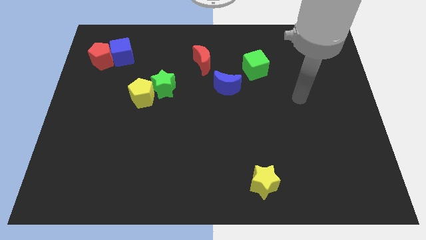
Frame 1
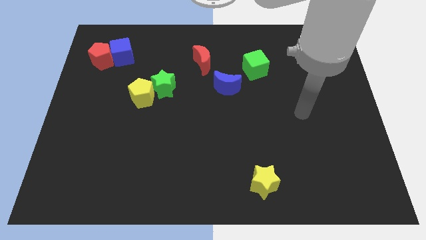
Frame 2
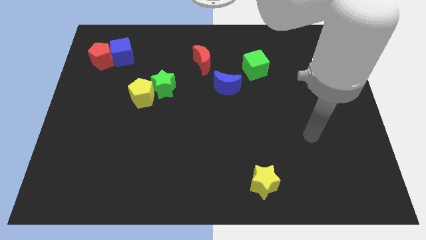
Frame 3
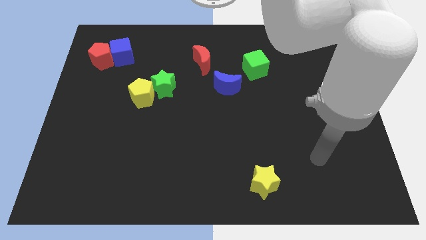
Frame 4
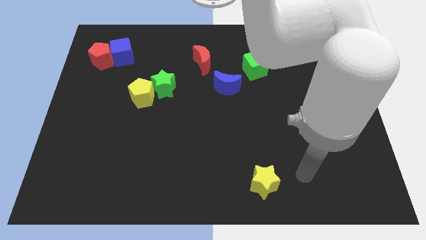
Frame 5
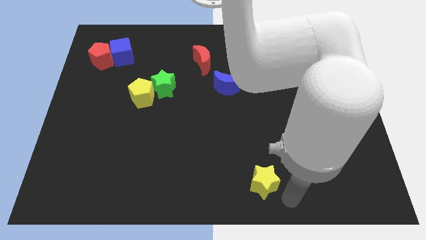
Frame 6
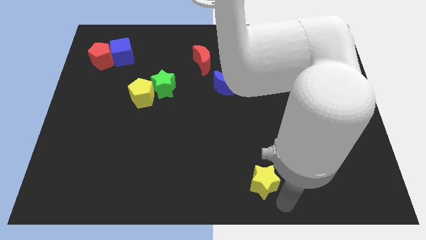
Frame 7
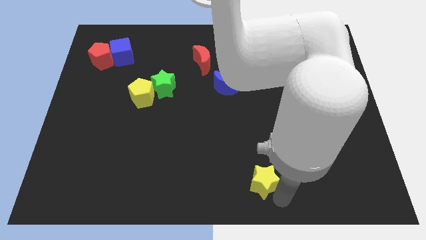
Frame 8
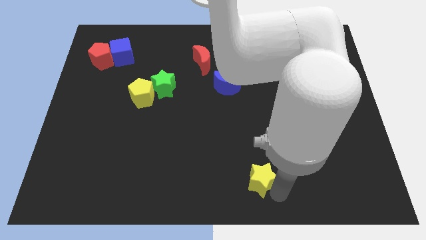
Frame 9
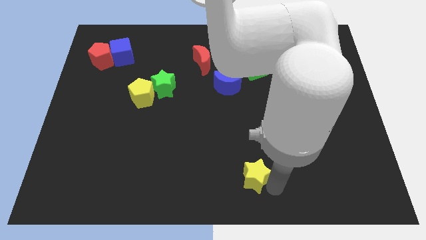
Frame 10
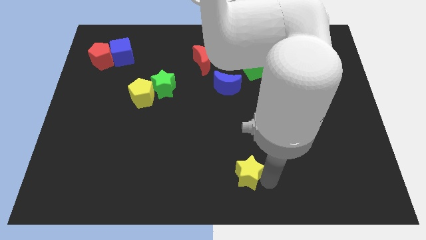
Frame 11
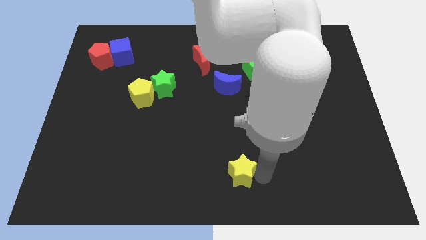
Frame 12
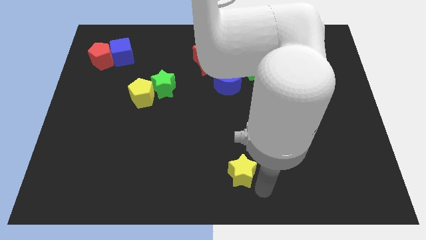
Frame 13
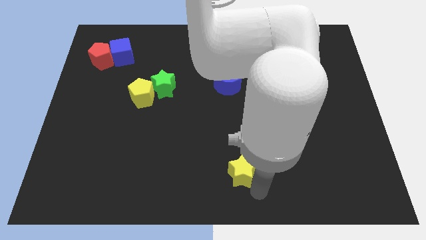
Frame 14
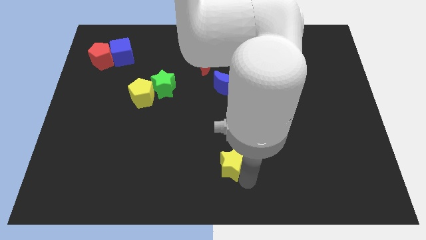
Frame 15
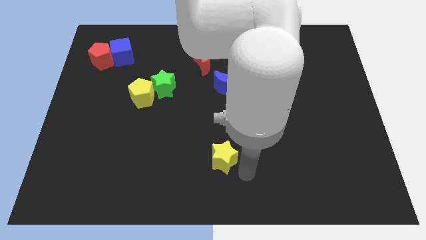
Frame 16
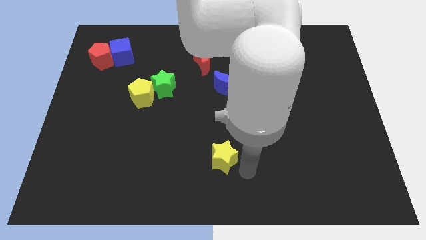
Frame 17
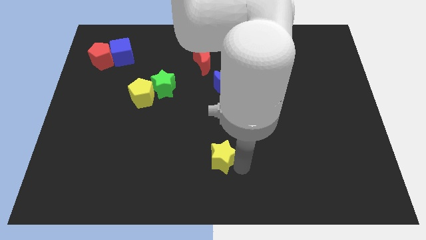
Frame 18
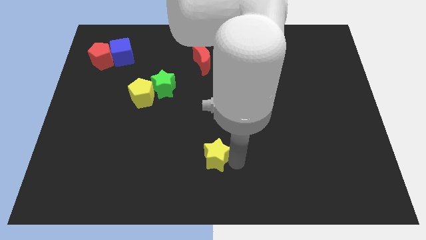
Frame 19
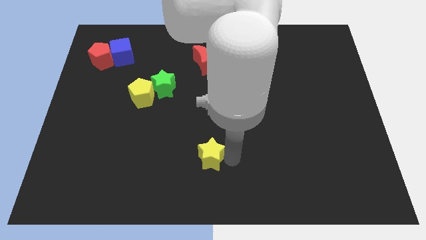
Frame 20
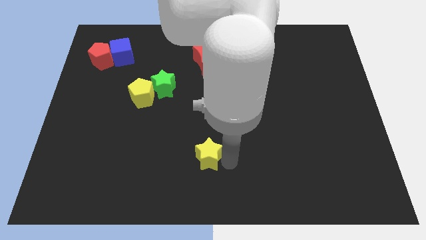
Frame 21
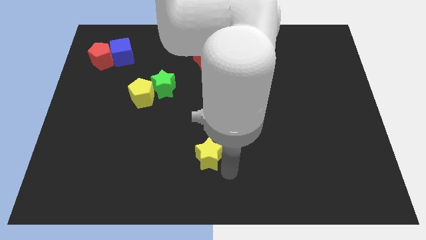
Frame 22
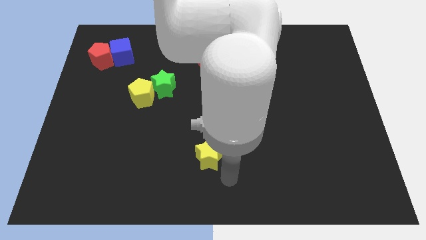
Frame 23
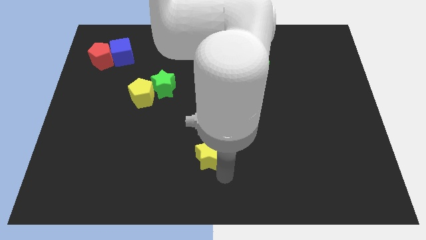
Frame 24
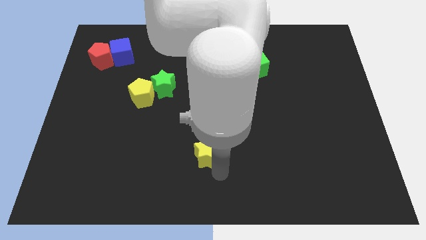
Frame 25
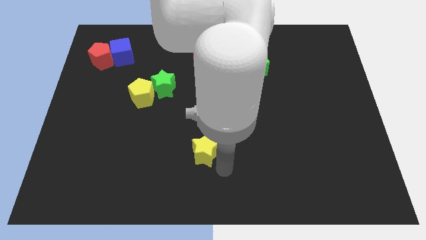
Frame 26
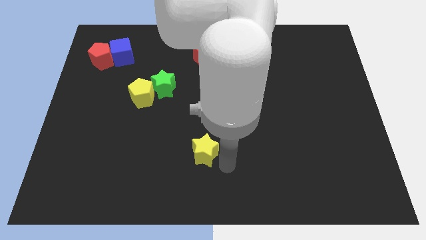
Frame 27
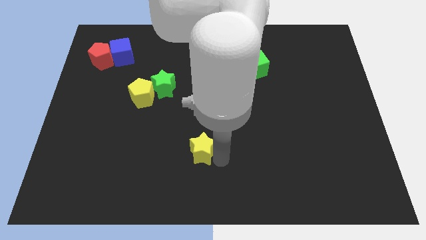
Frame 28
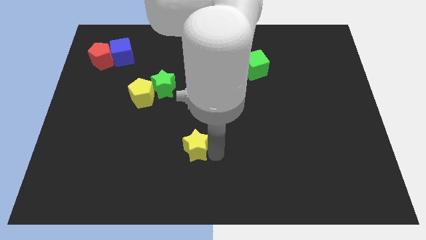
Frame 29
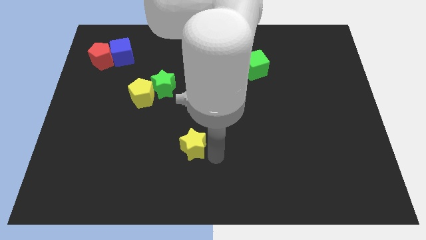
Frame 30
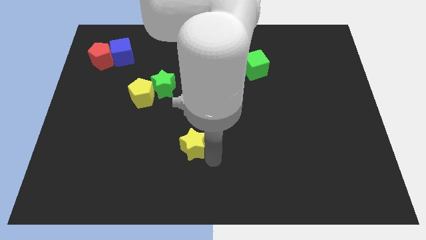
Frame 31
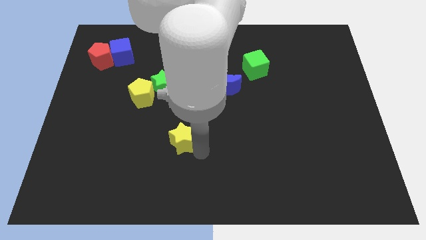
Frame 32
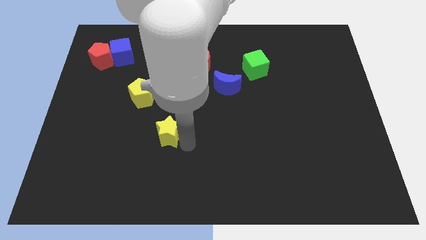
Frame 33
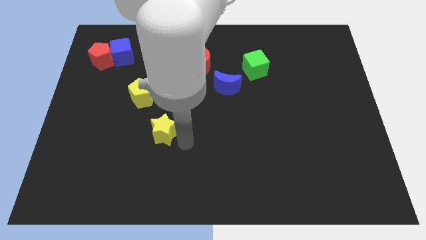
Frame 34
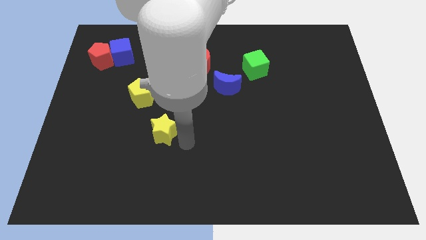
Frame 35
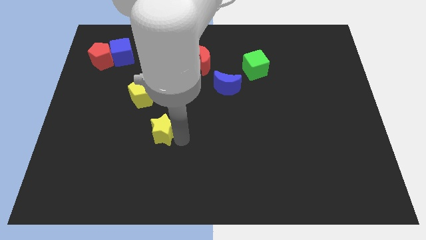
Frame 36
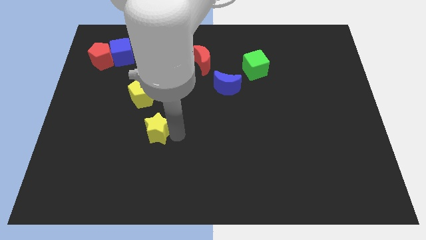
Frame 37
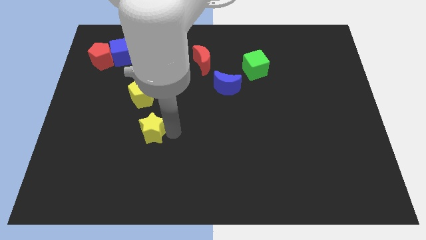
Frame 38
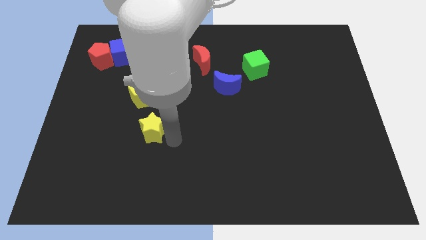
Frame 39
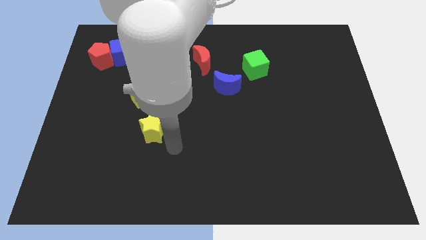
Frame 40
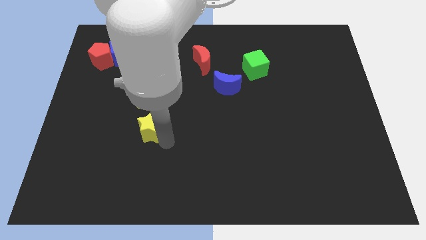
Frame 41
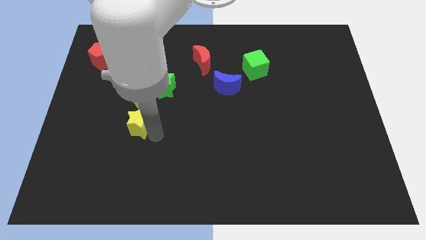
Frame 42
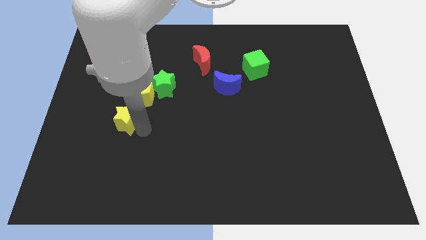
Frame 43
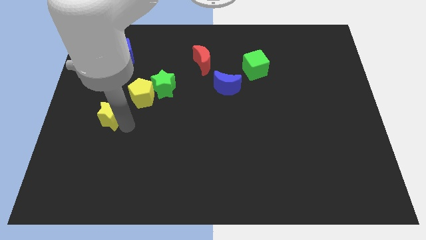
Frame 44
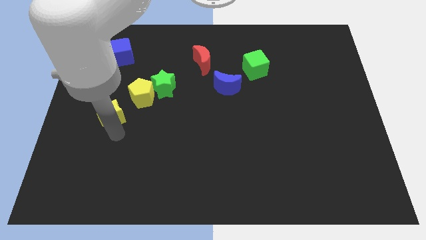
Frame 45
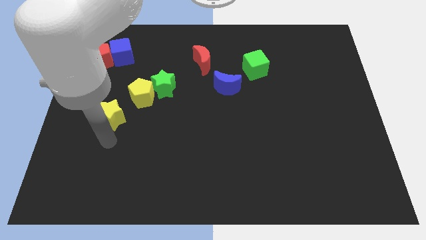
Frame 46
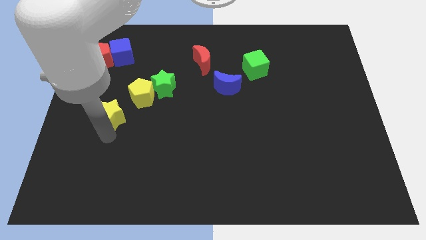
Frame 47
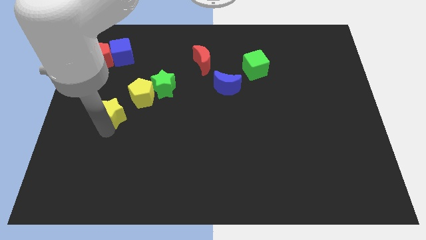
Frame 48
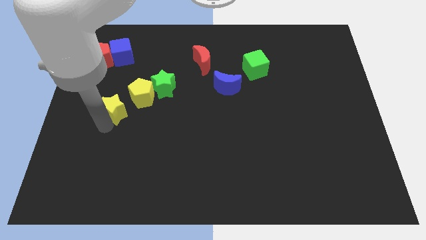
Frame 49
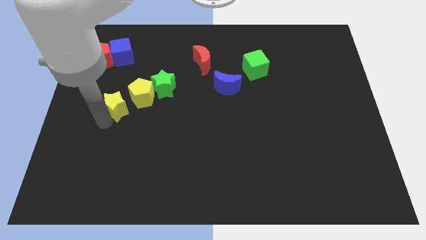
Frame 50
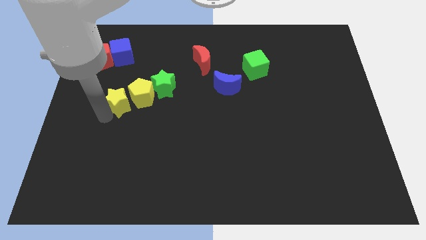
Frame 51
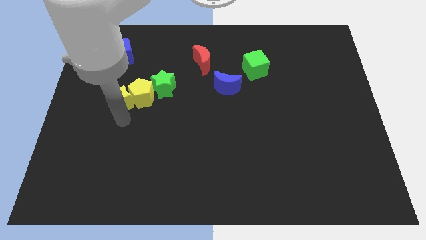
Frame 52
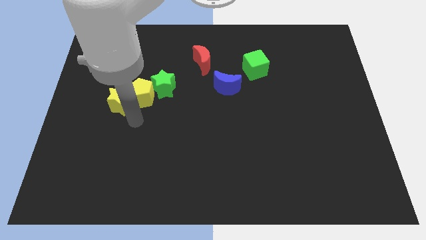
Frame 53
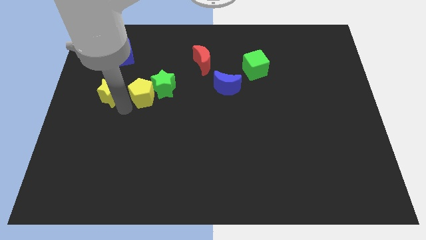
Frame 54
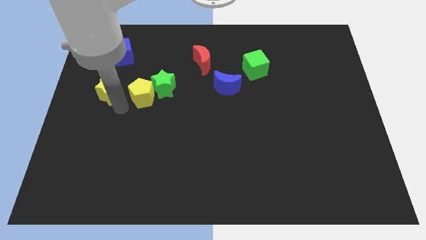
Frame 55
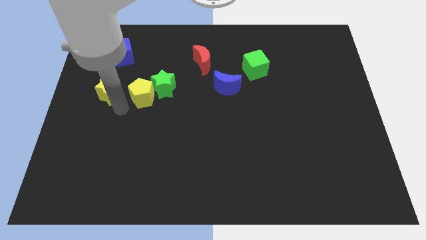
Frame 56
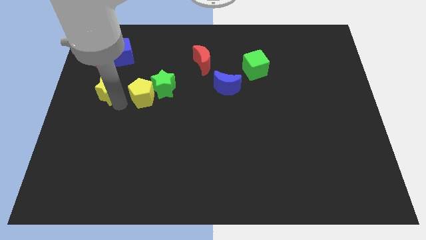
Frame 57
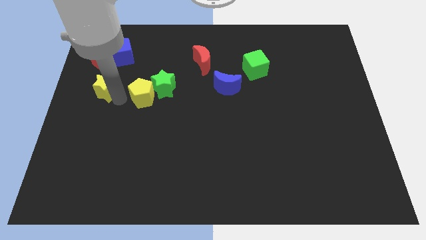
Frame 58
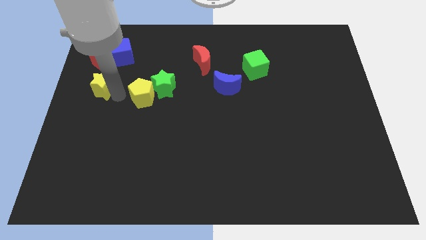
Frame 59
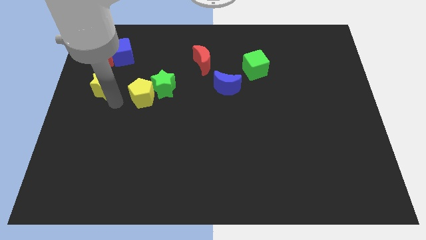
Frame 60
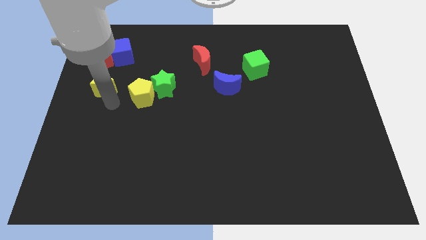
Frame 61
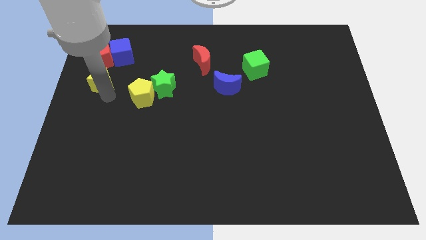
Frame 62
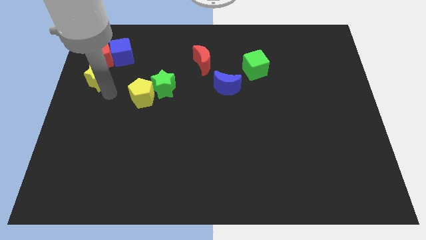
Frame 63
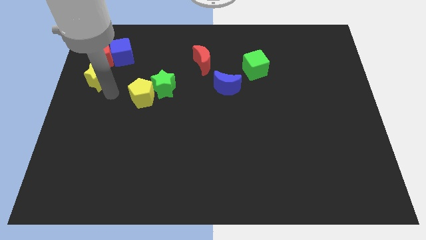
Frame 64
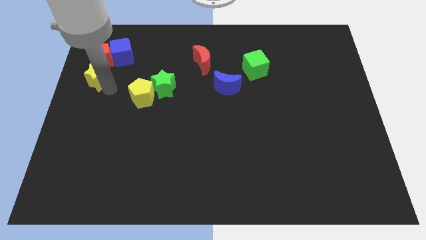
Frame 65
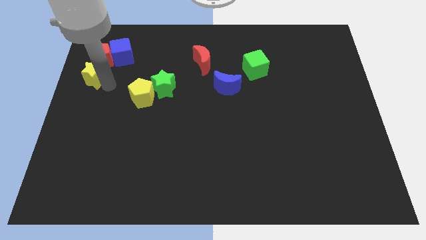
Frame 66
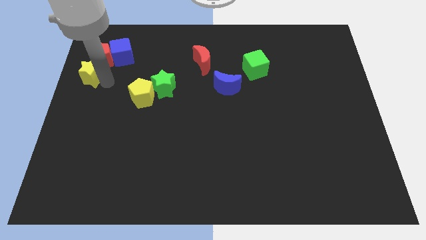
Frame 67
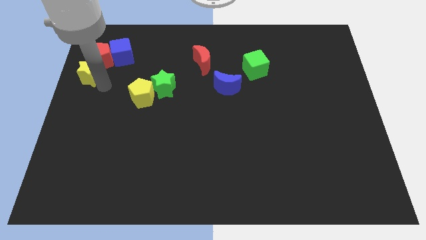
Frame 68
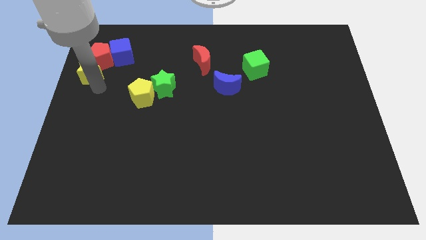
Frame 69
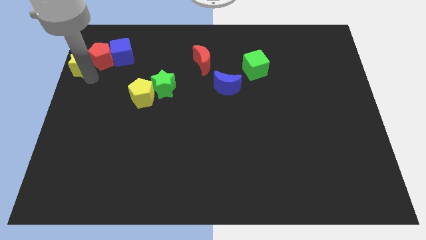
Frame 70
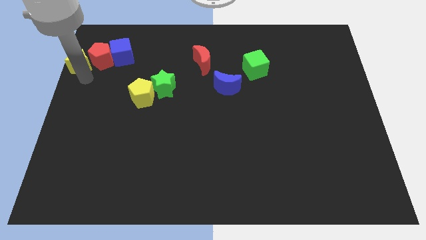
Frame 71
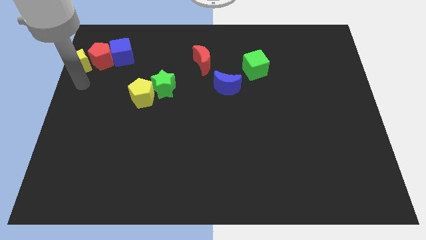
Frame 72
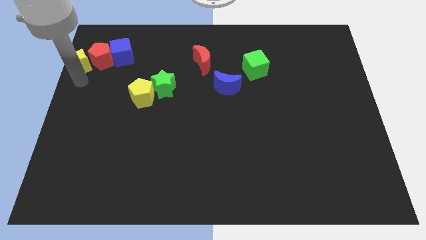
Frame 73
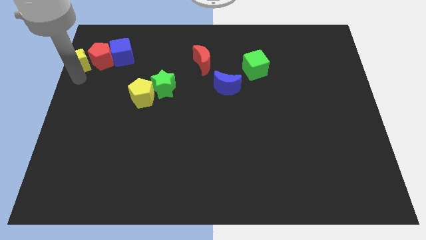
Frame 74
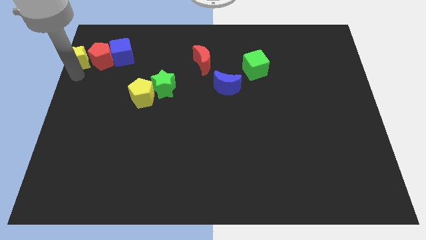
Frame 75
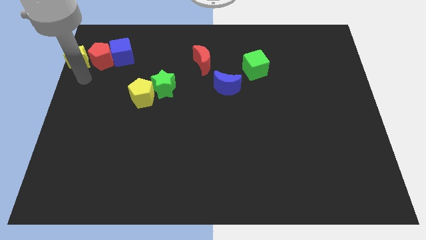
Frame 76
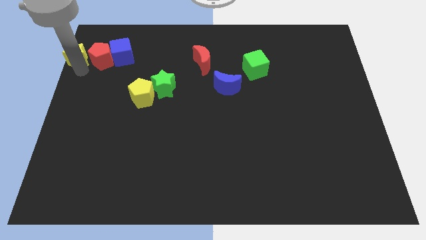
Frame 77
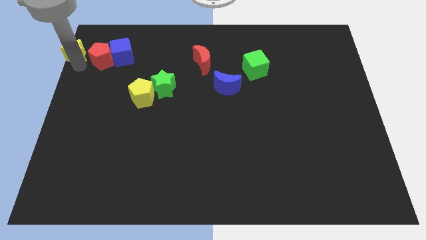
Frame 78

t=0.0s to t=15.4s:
push the yellow star to the top left of the board
